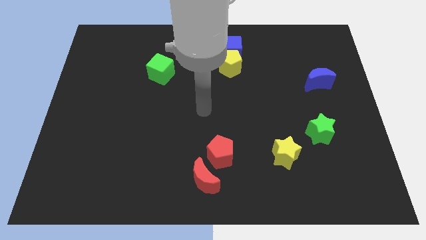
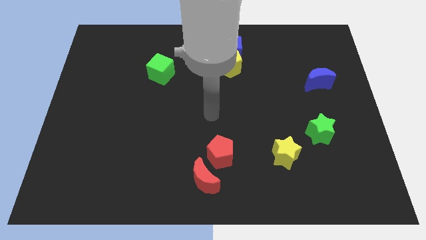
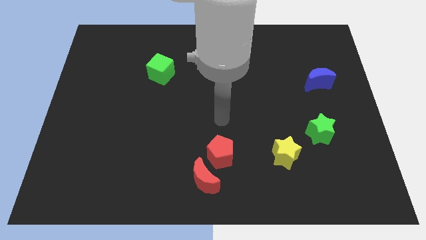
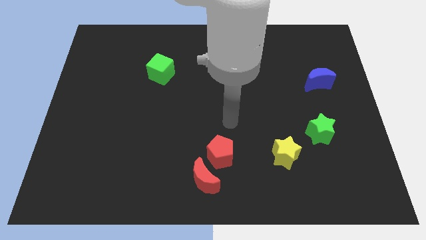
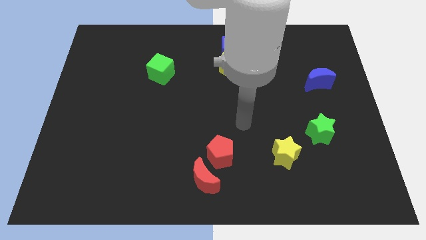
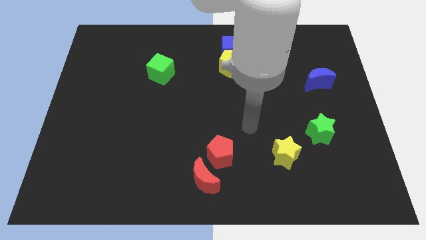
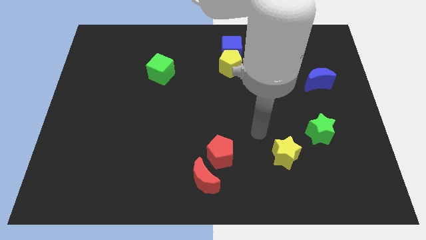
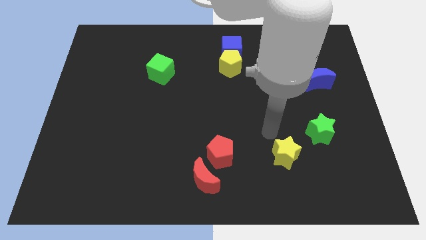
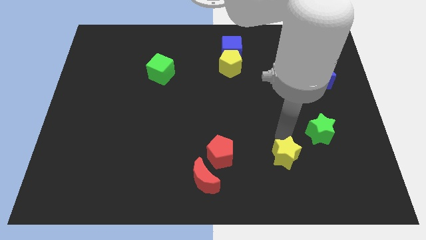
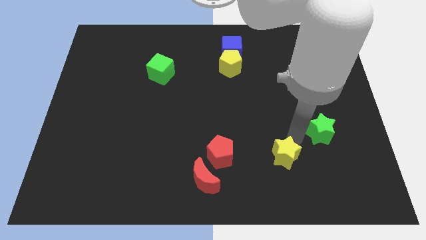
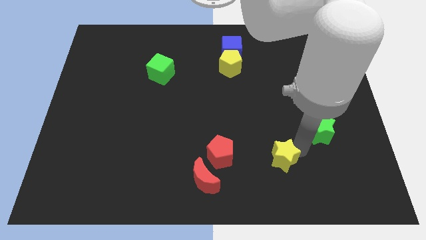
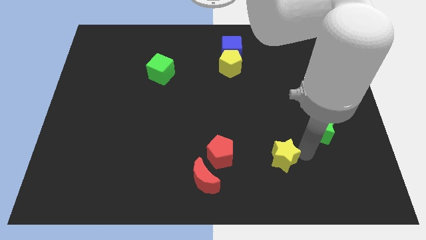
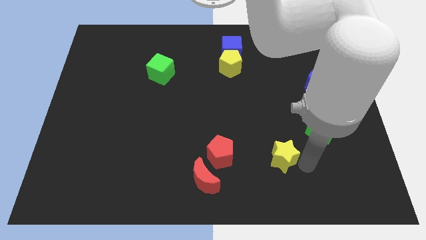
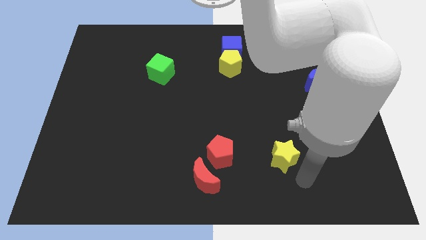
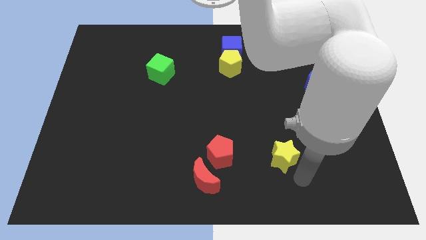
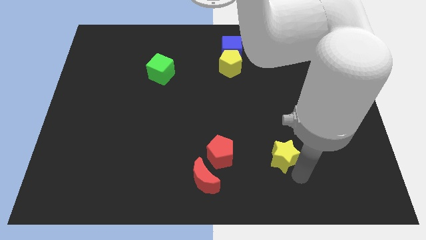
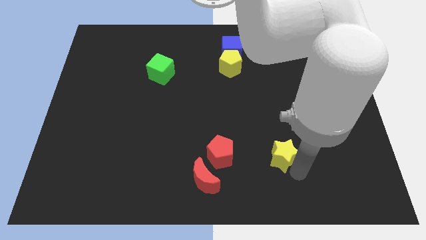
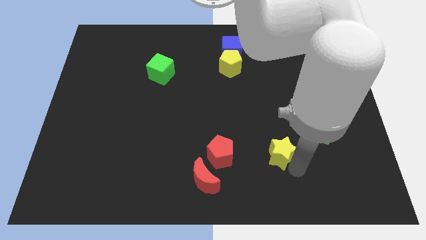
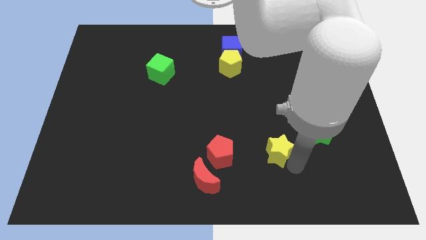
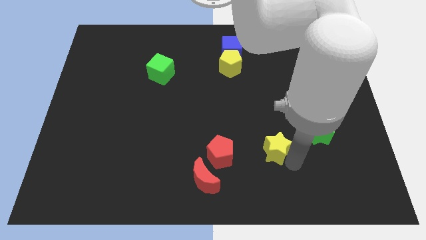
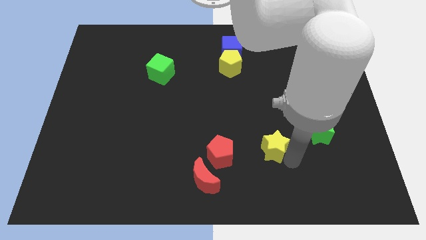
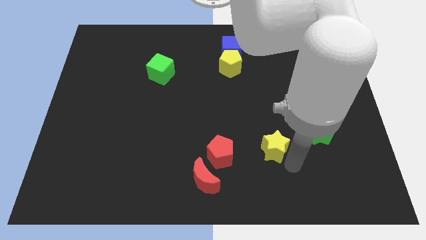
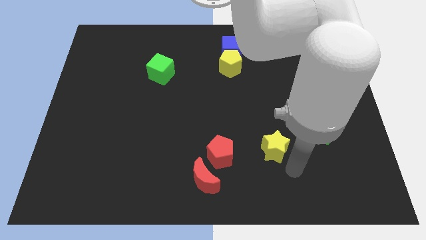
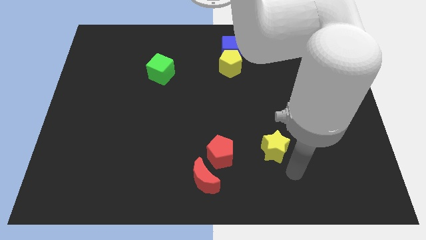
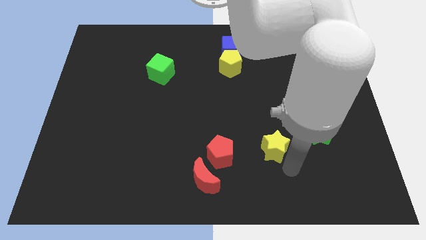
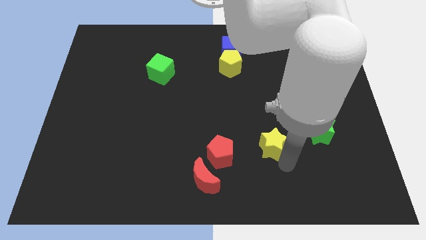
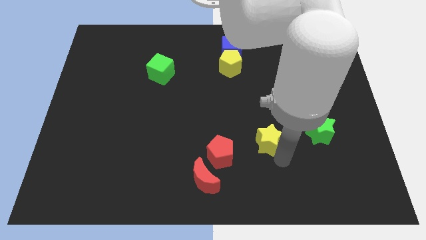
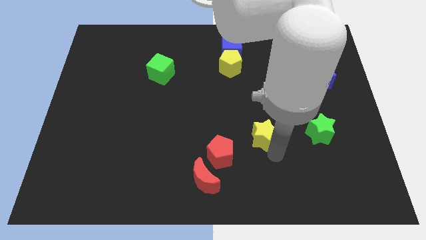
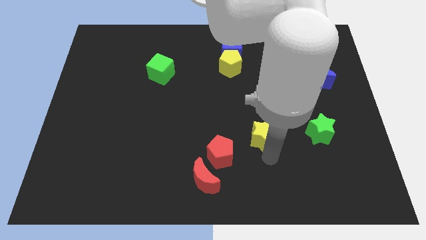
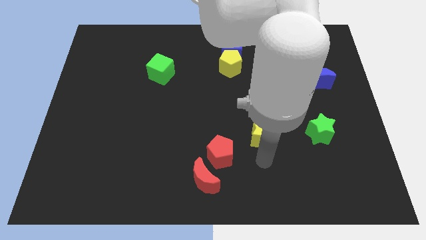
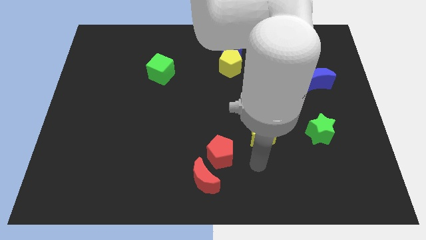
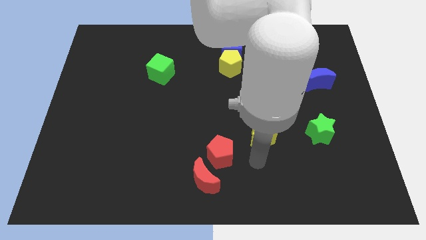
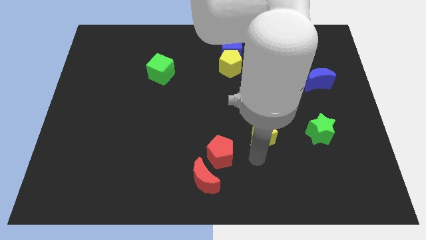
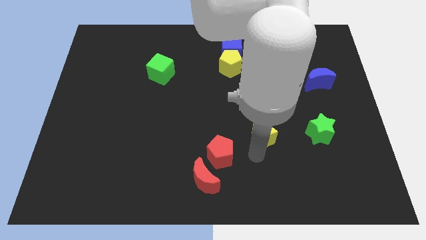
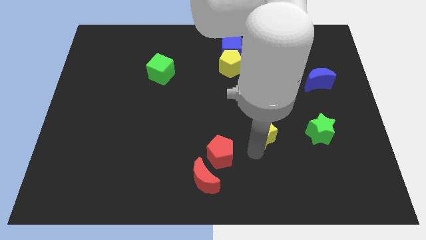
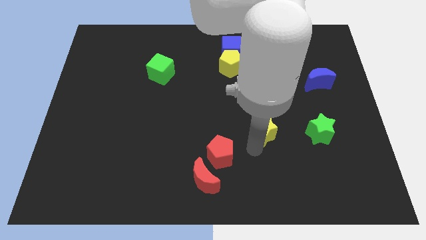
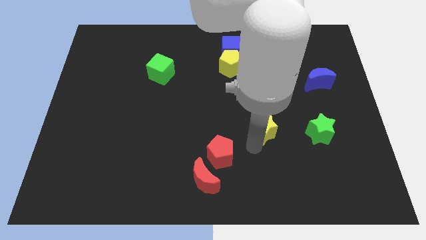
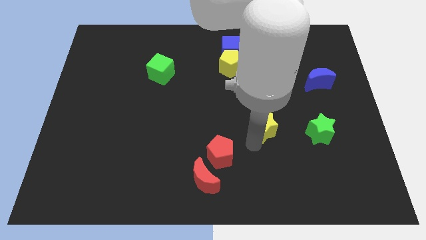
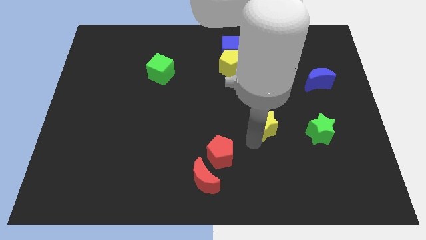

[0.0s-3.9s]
slightly slide the yellow star upwards

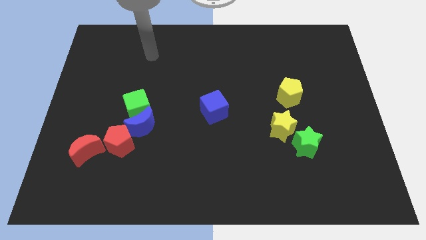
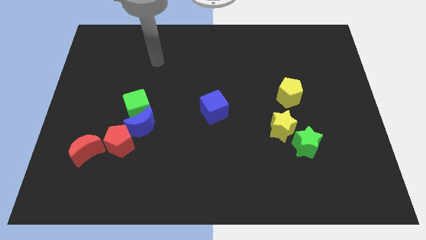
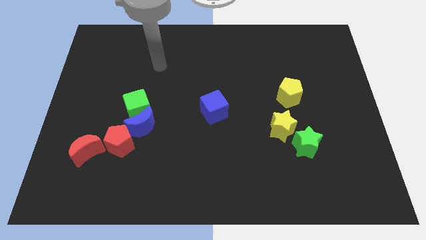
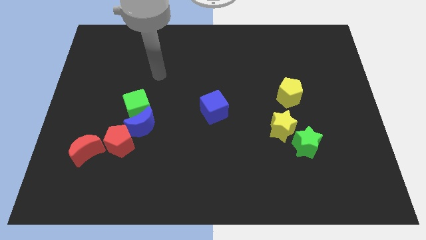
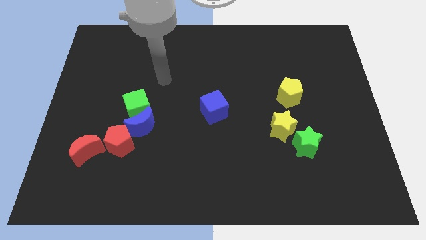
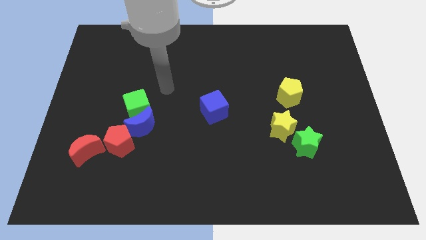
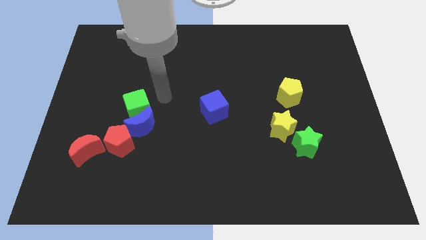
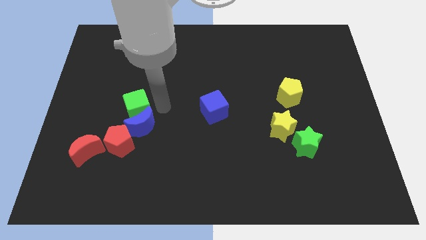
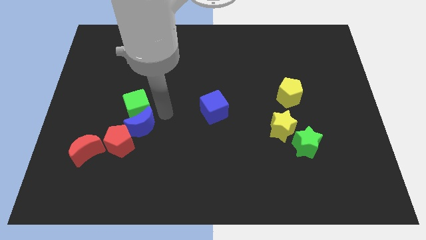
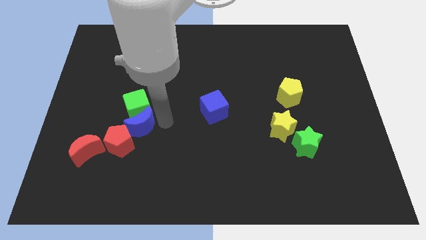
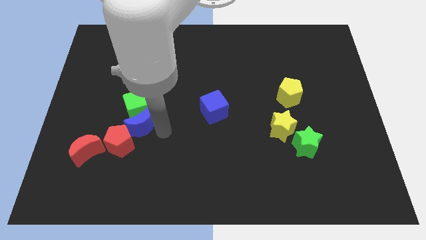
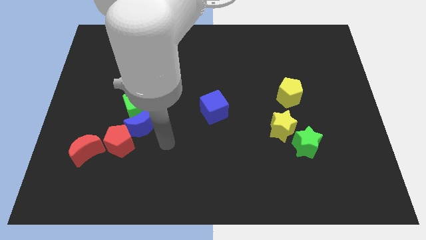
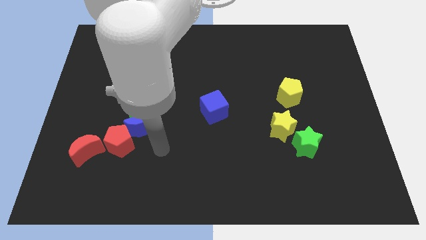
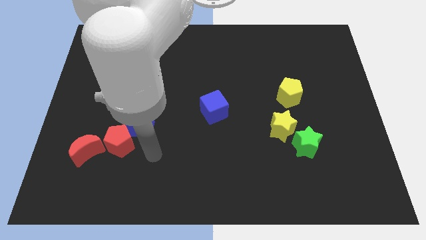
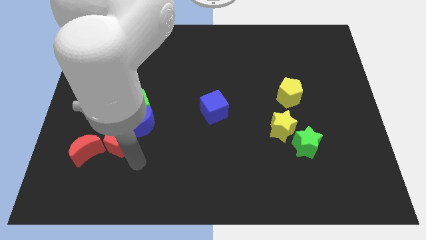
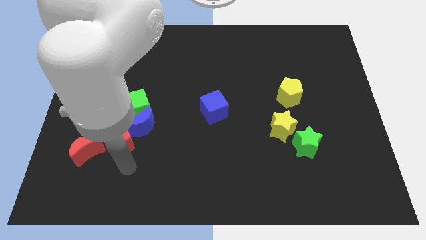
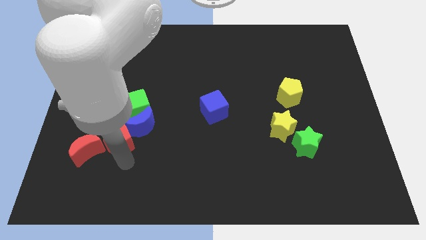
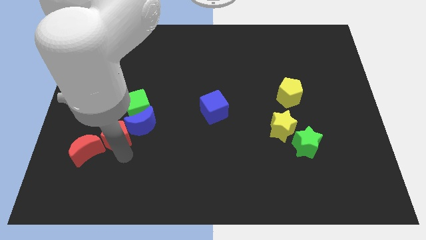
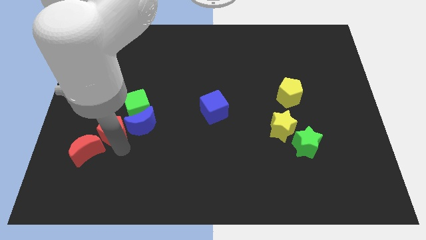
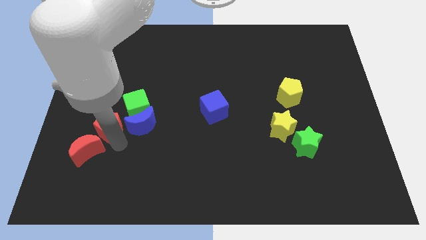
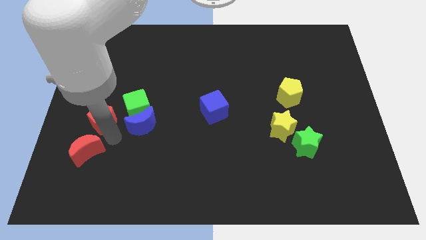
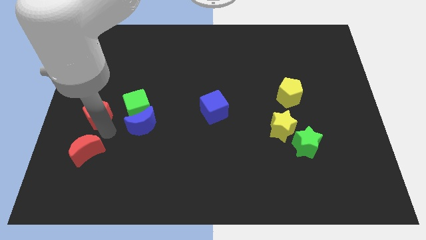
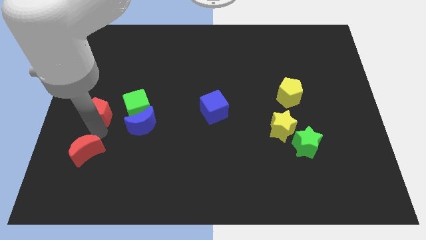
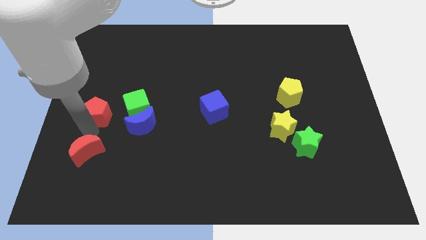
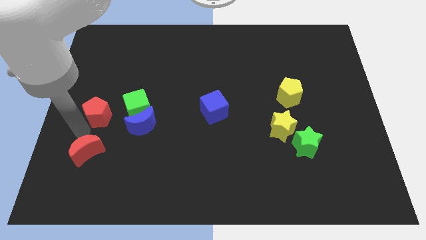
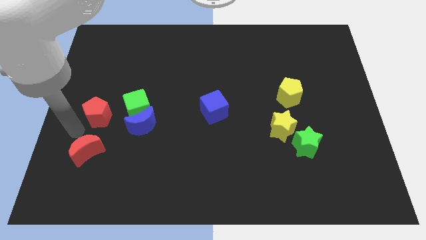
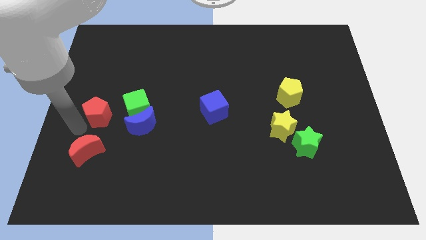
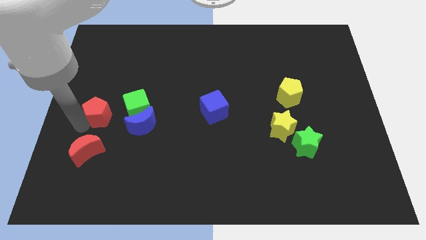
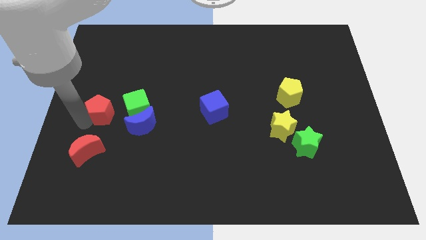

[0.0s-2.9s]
push the red pentagon slightly up

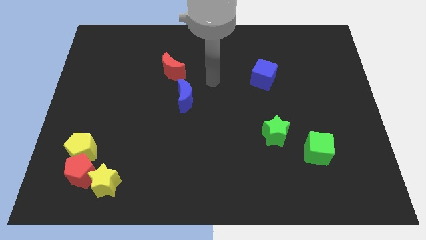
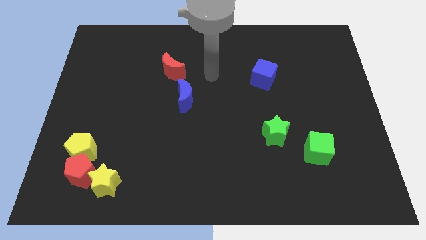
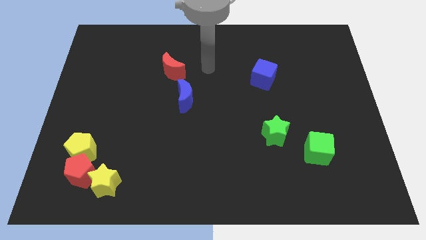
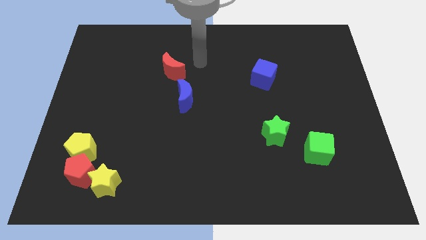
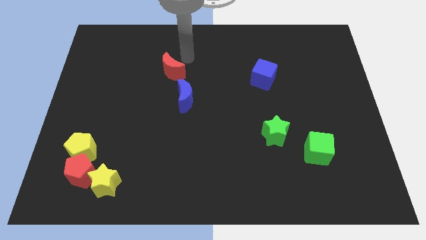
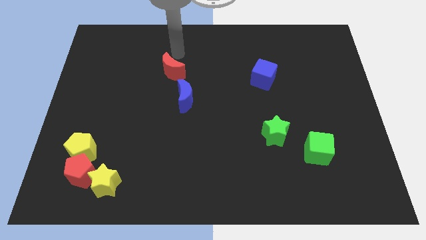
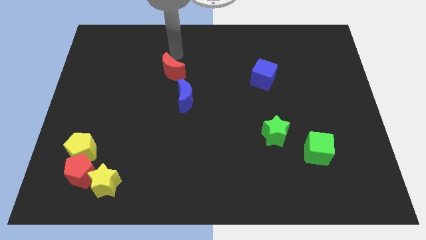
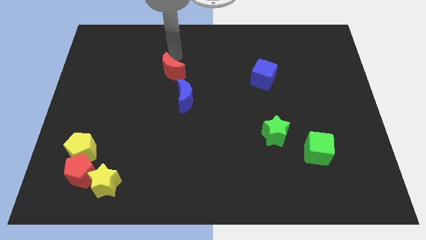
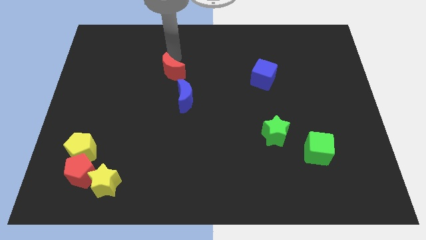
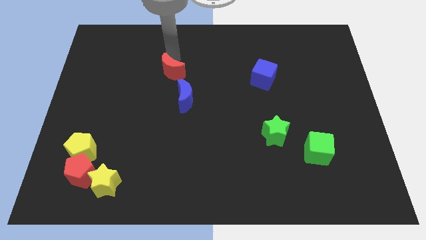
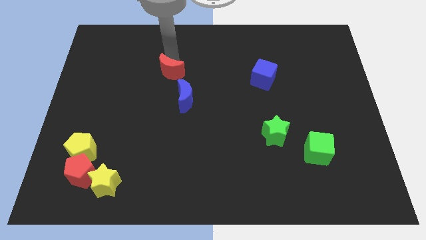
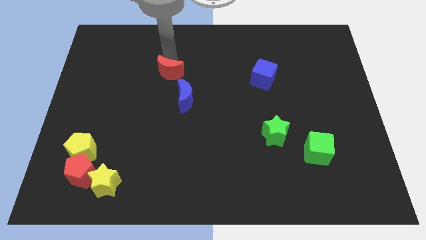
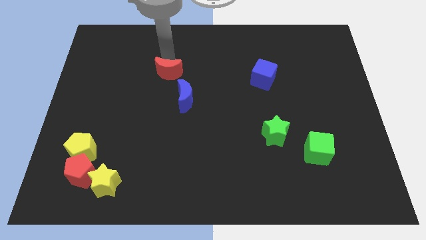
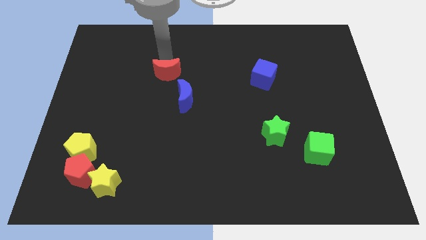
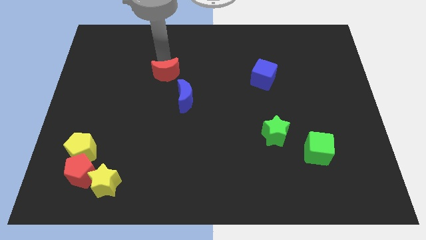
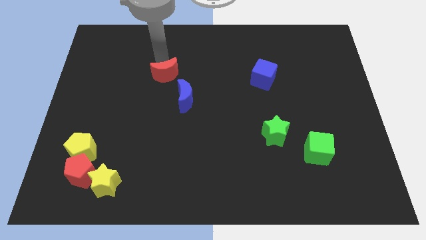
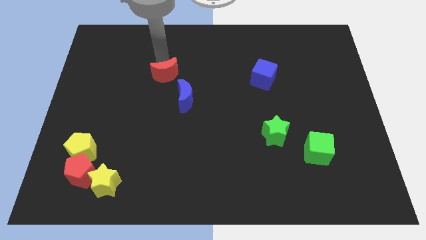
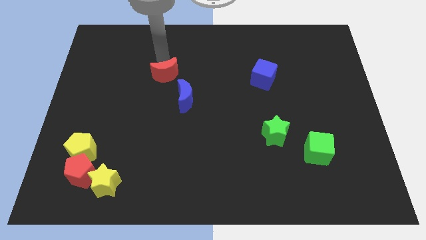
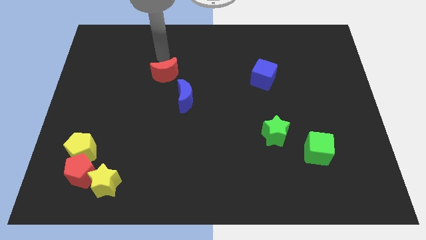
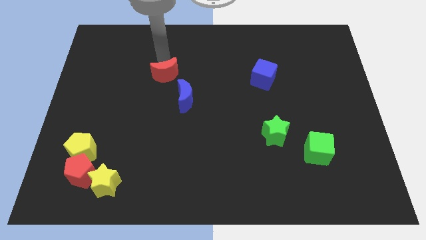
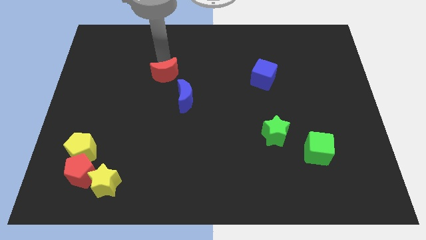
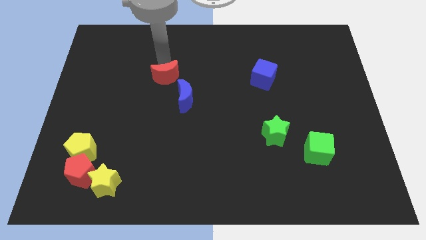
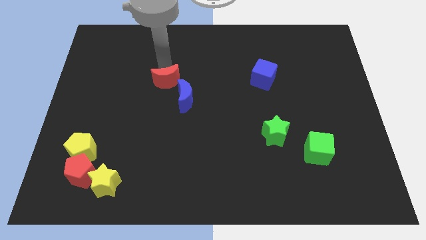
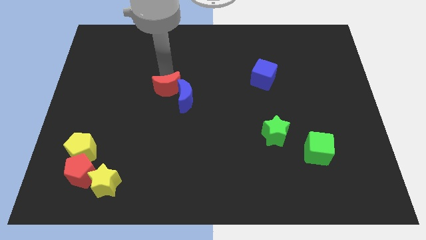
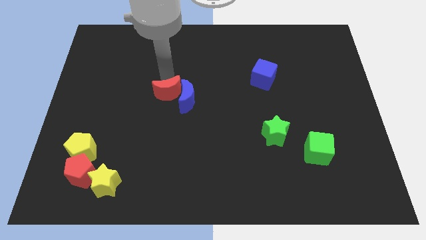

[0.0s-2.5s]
slightly slide the red moon down
